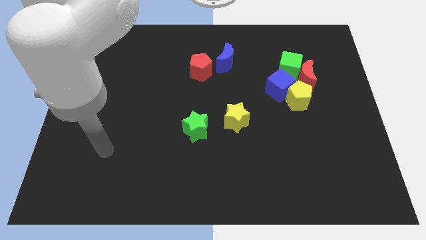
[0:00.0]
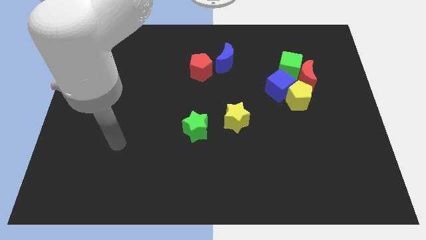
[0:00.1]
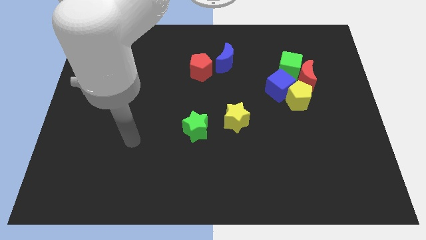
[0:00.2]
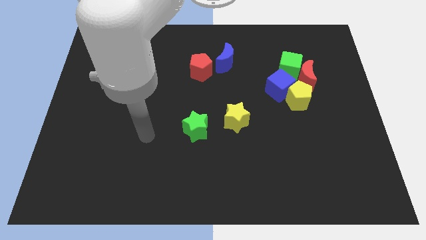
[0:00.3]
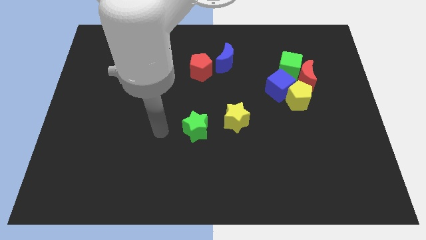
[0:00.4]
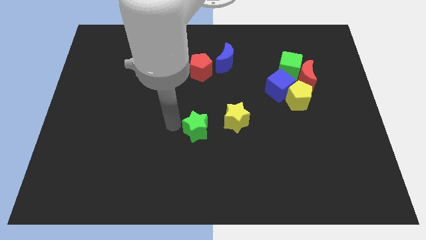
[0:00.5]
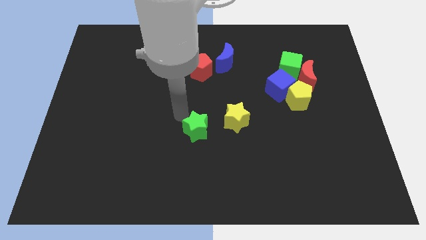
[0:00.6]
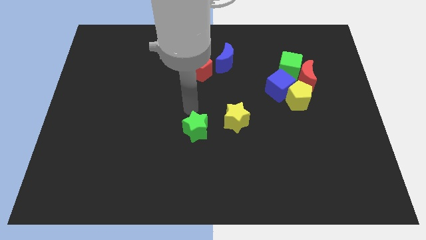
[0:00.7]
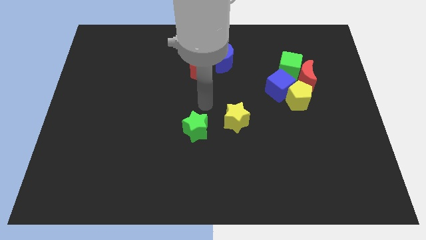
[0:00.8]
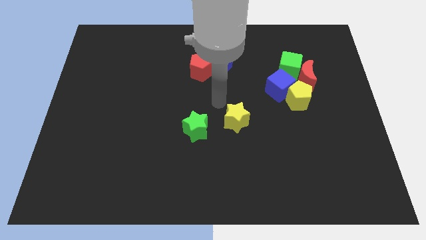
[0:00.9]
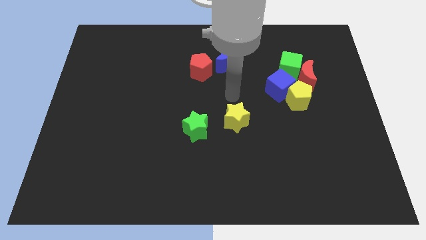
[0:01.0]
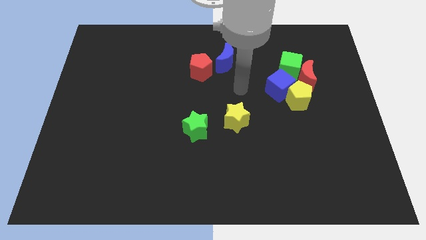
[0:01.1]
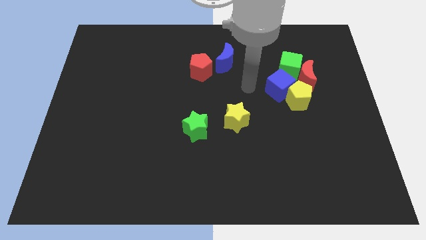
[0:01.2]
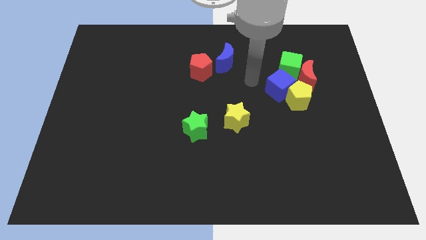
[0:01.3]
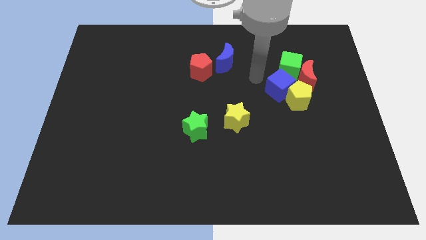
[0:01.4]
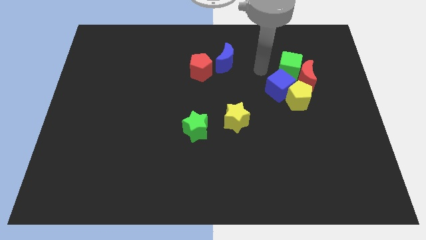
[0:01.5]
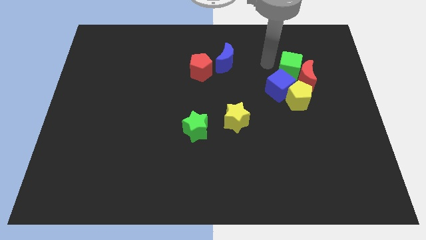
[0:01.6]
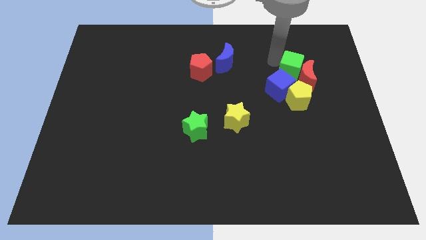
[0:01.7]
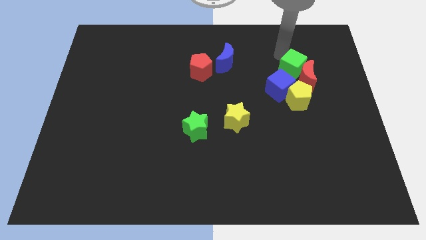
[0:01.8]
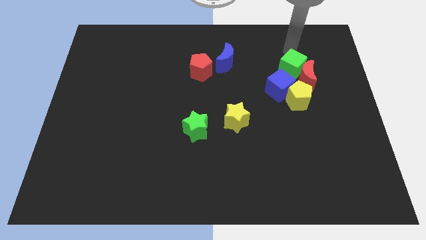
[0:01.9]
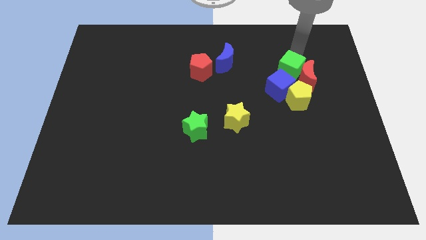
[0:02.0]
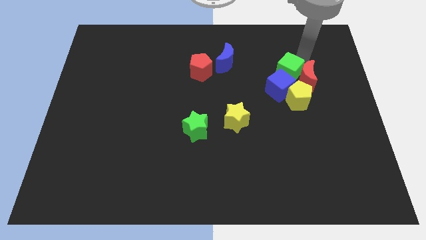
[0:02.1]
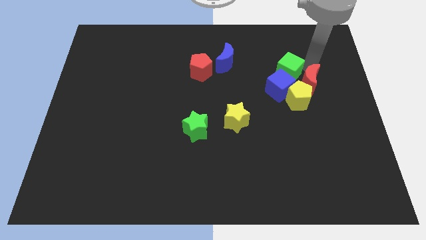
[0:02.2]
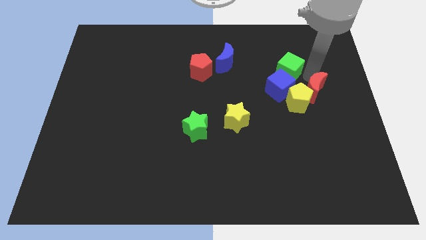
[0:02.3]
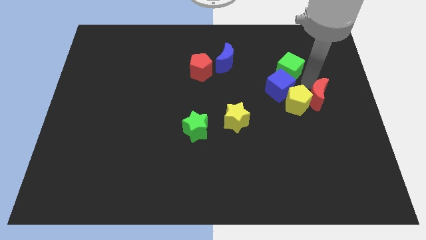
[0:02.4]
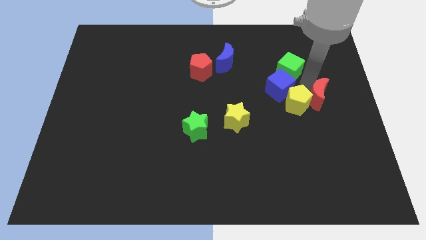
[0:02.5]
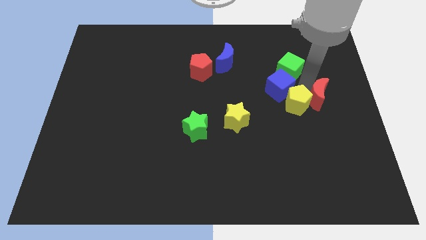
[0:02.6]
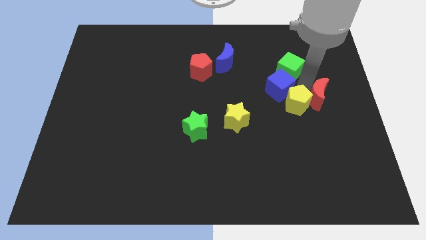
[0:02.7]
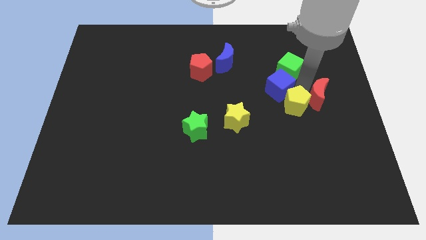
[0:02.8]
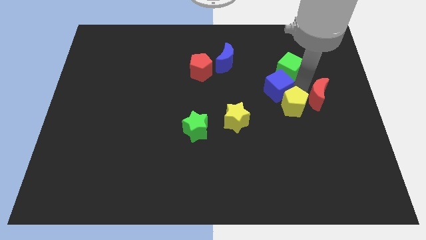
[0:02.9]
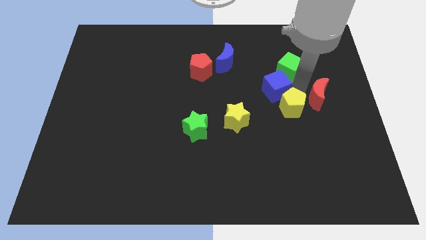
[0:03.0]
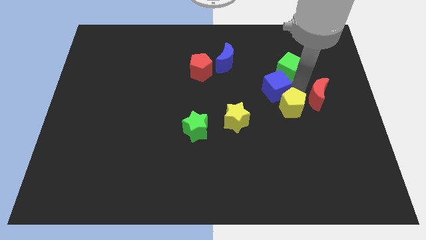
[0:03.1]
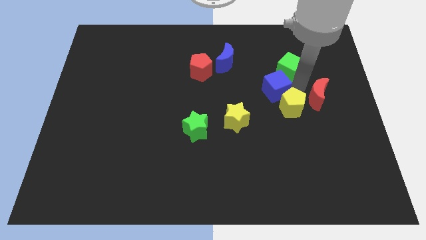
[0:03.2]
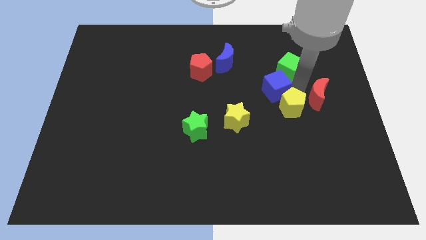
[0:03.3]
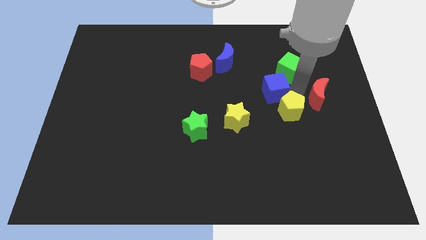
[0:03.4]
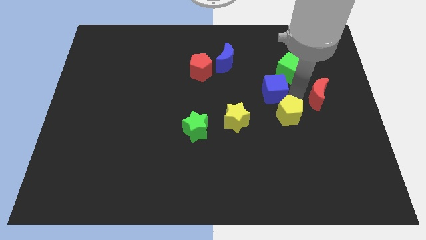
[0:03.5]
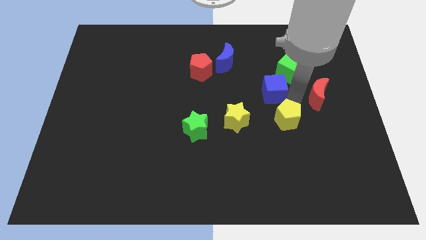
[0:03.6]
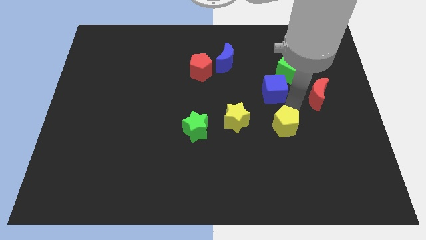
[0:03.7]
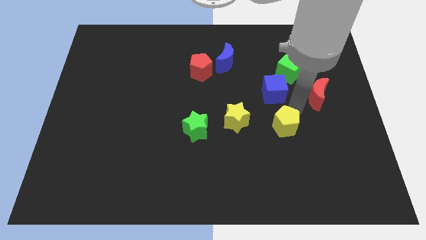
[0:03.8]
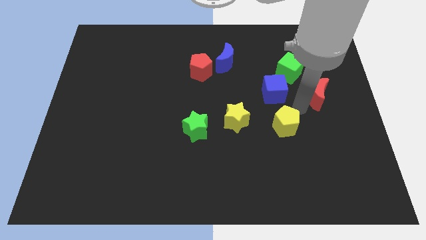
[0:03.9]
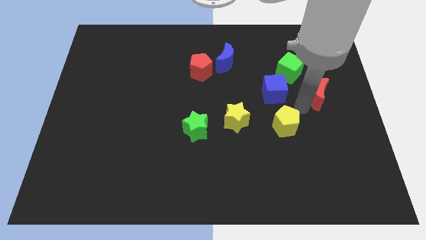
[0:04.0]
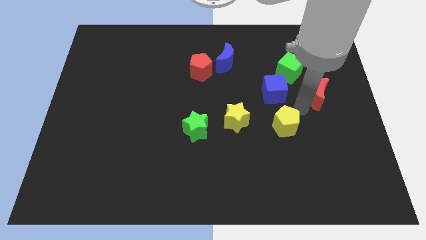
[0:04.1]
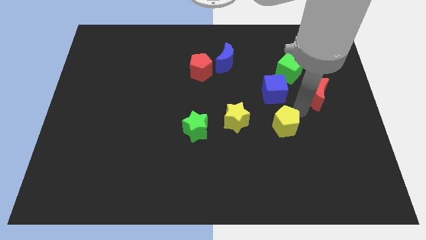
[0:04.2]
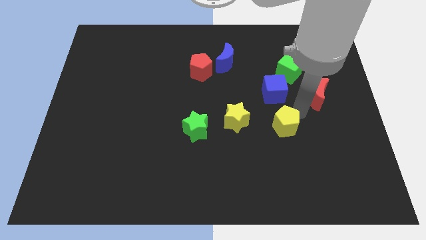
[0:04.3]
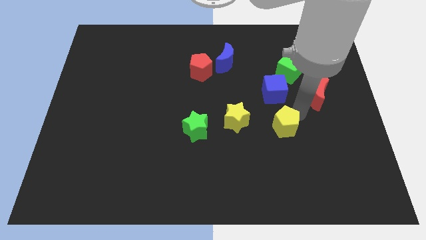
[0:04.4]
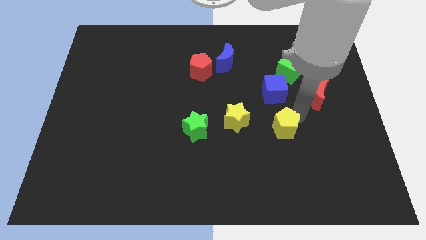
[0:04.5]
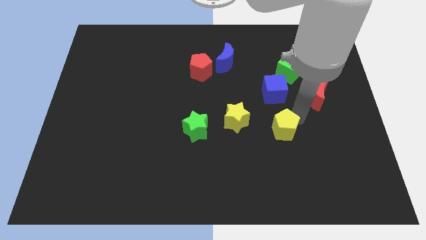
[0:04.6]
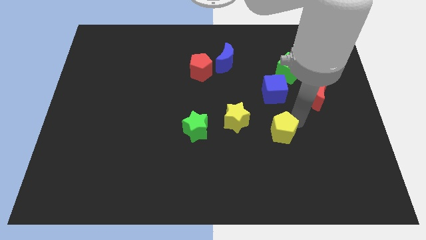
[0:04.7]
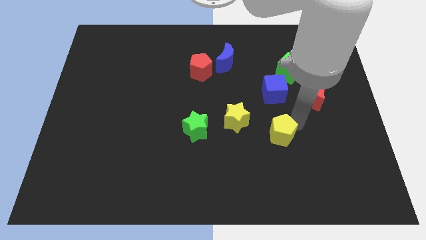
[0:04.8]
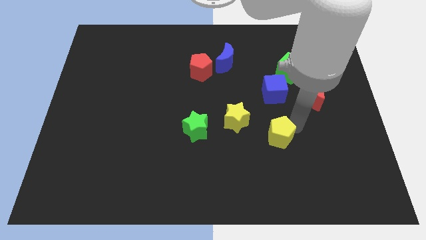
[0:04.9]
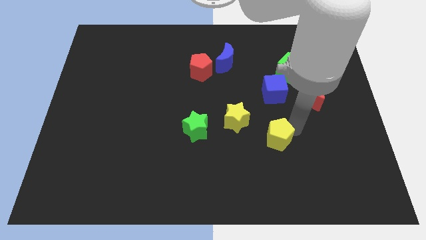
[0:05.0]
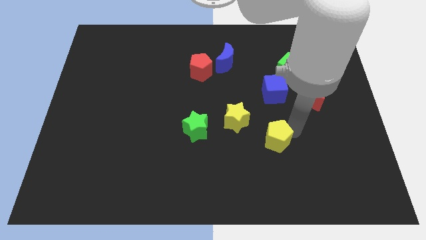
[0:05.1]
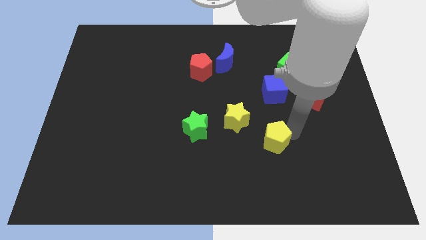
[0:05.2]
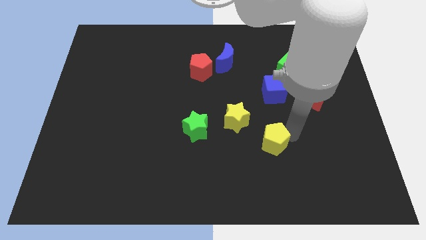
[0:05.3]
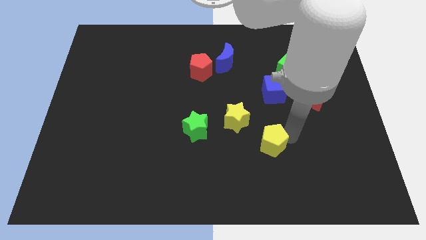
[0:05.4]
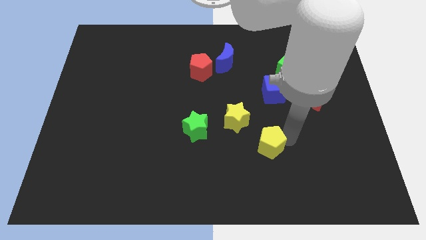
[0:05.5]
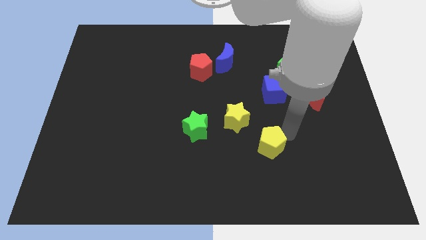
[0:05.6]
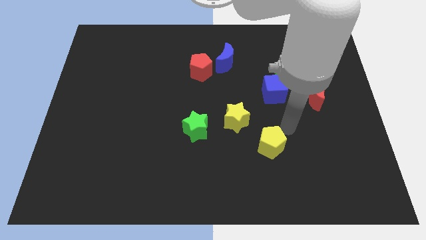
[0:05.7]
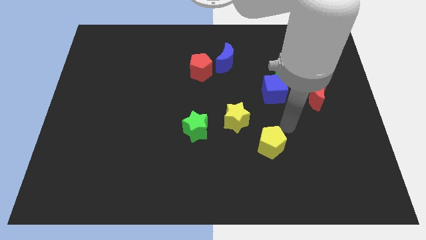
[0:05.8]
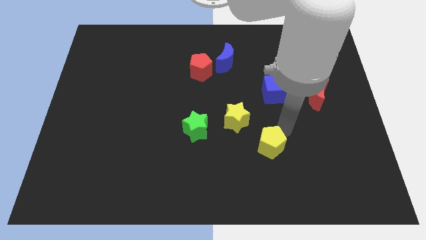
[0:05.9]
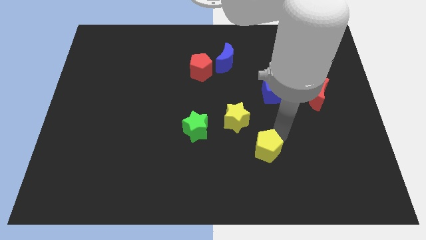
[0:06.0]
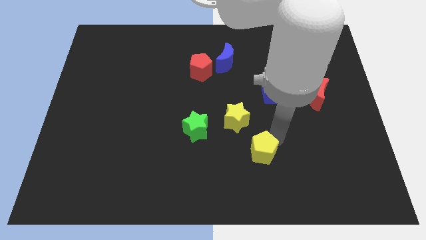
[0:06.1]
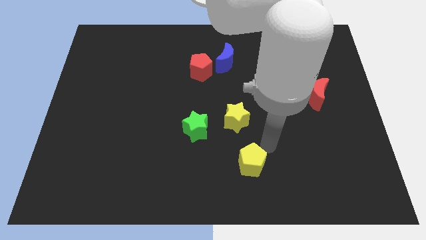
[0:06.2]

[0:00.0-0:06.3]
move the yellow pentagon to the bottom side
